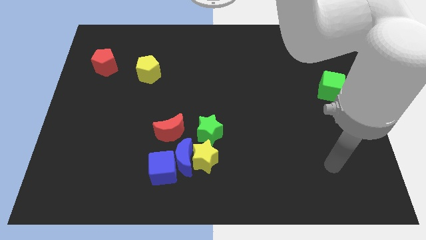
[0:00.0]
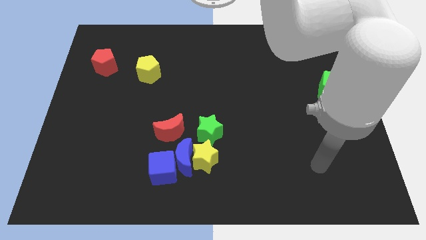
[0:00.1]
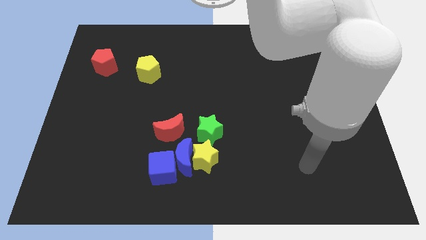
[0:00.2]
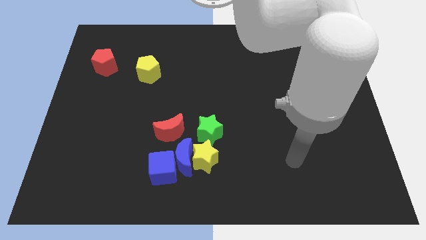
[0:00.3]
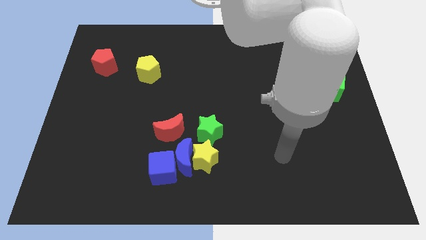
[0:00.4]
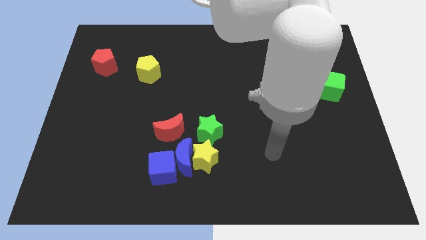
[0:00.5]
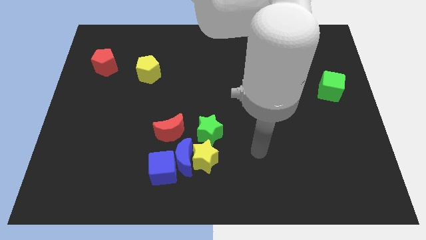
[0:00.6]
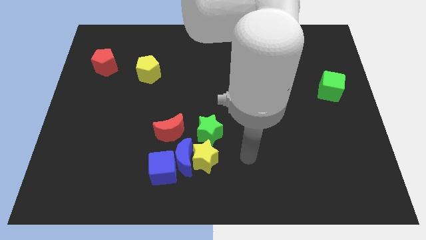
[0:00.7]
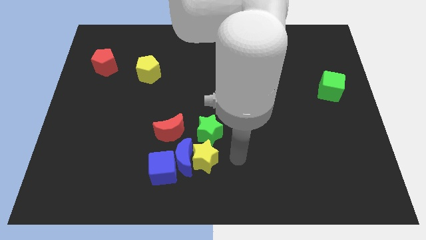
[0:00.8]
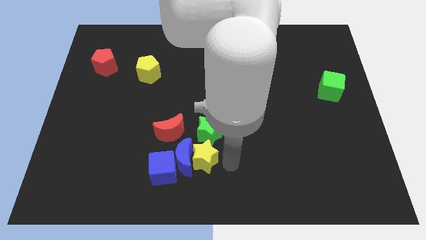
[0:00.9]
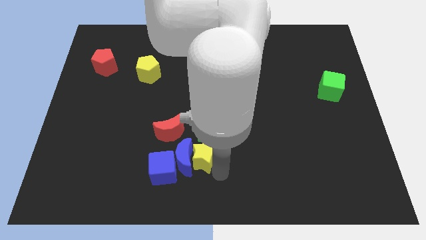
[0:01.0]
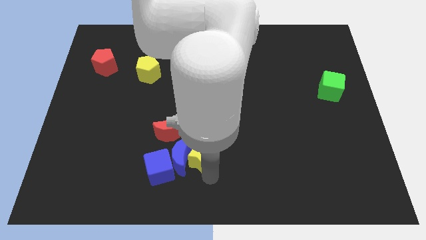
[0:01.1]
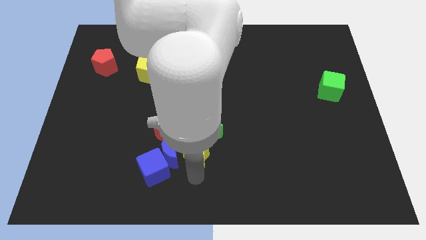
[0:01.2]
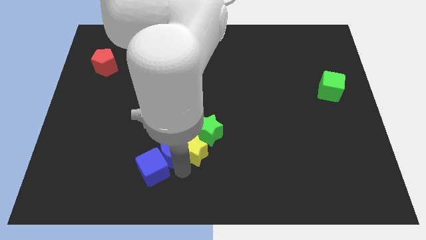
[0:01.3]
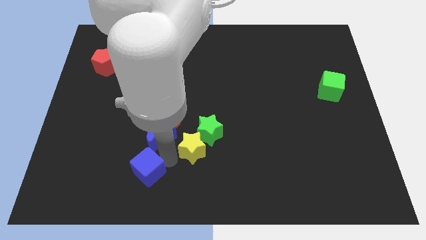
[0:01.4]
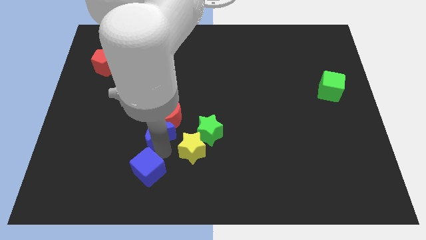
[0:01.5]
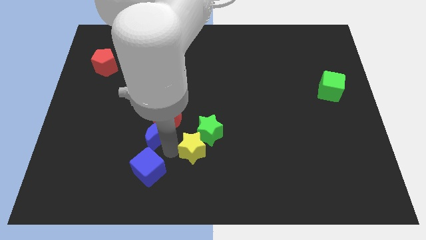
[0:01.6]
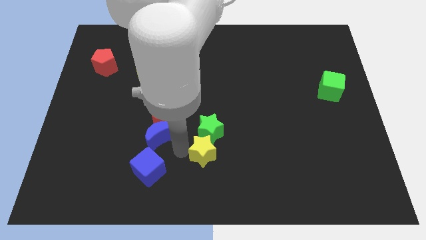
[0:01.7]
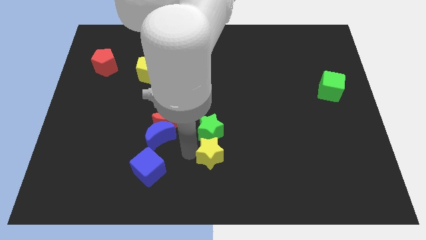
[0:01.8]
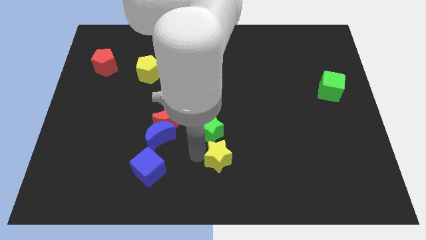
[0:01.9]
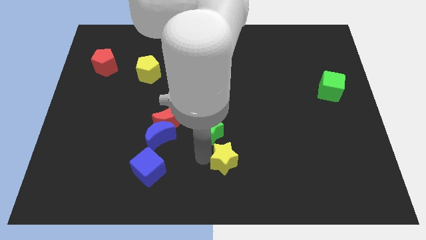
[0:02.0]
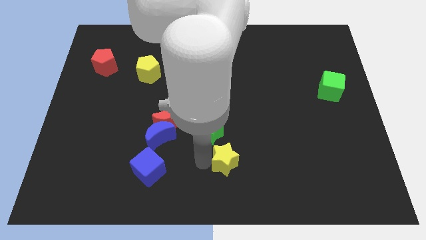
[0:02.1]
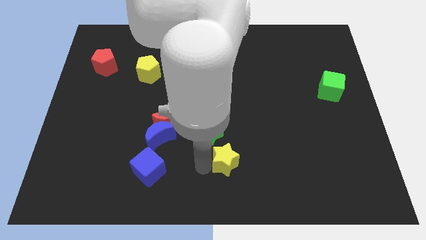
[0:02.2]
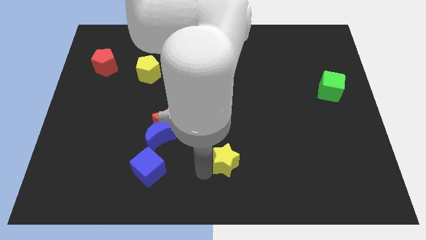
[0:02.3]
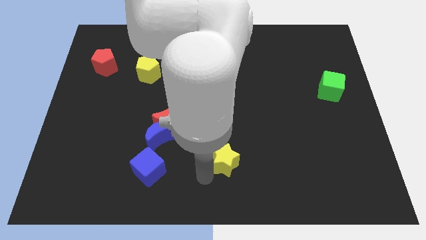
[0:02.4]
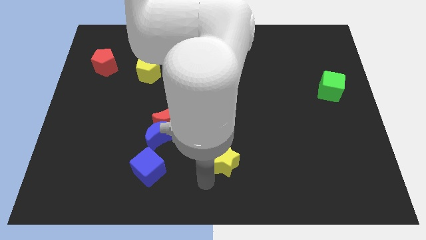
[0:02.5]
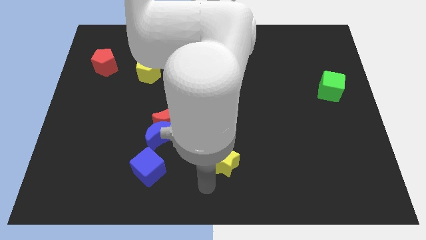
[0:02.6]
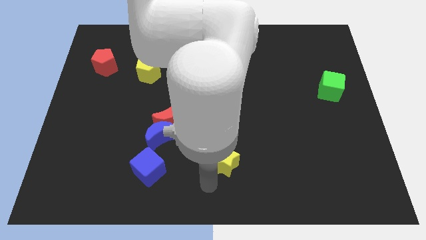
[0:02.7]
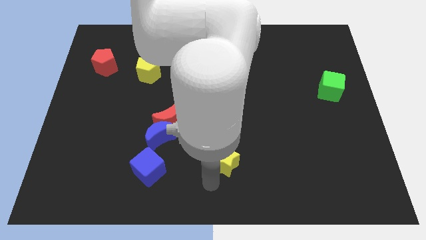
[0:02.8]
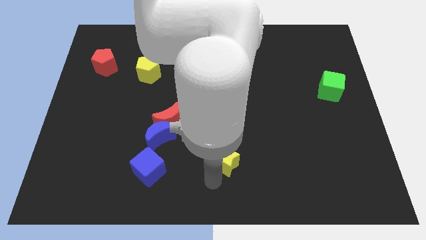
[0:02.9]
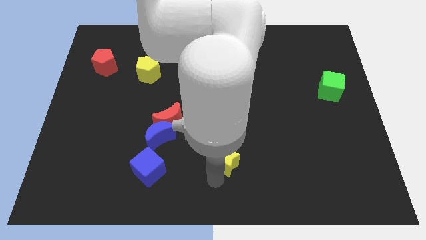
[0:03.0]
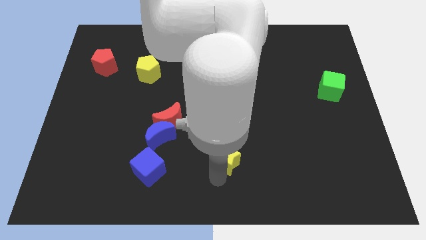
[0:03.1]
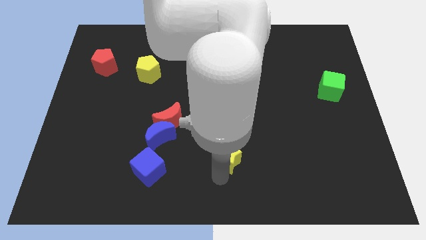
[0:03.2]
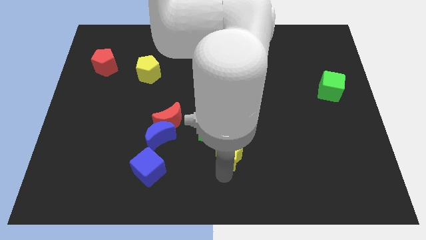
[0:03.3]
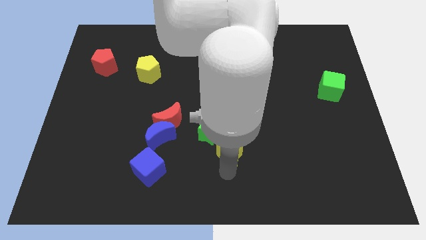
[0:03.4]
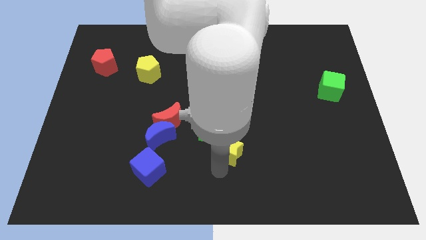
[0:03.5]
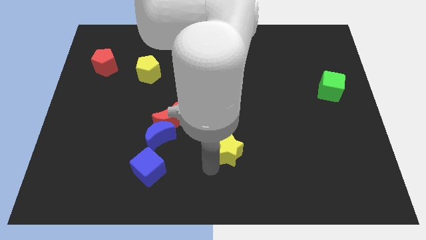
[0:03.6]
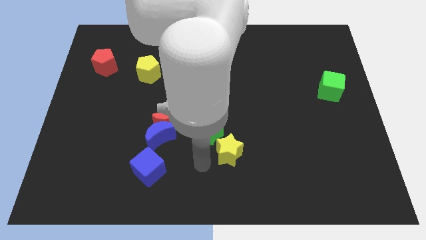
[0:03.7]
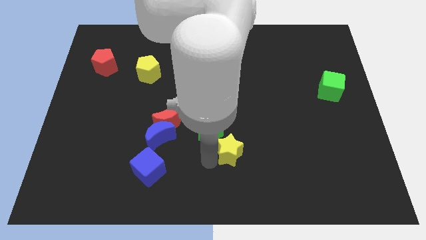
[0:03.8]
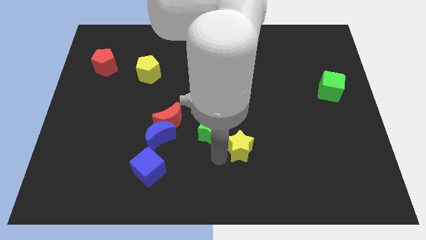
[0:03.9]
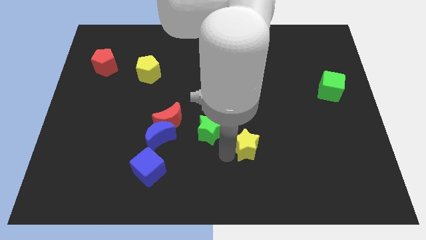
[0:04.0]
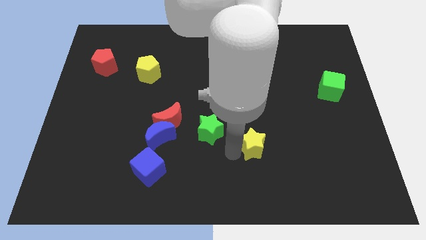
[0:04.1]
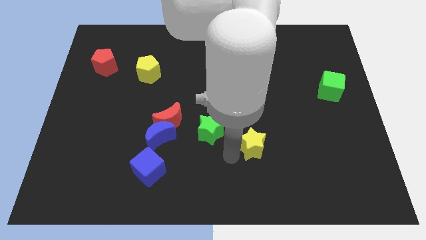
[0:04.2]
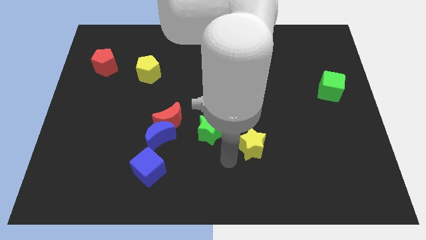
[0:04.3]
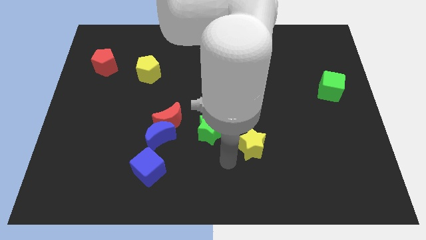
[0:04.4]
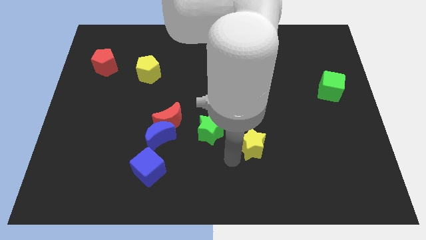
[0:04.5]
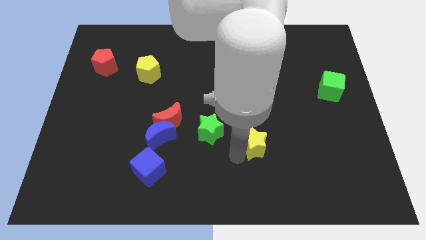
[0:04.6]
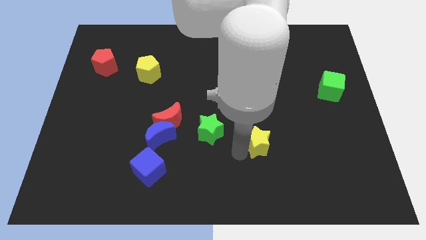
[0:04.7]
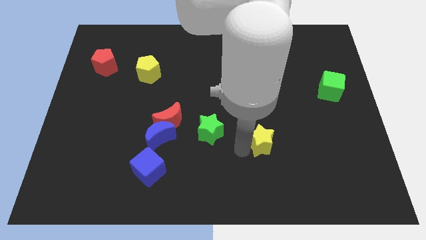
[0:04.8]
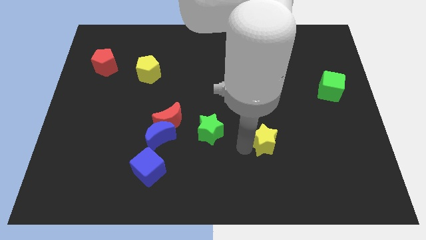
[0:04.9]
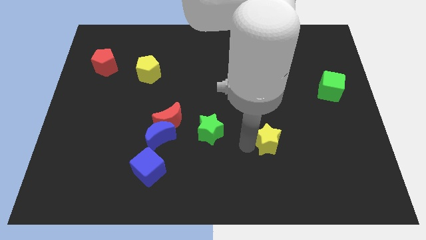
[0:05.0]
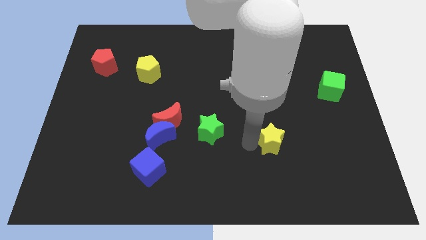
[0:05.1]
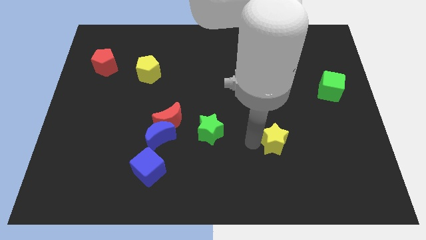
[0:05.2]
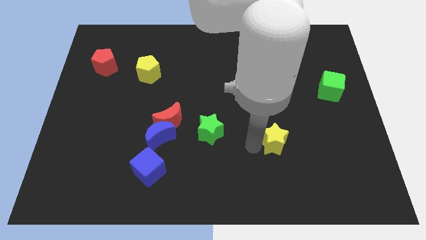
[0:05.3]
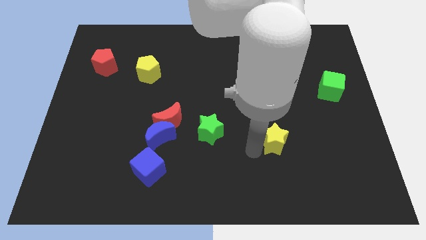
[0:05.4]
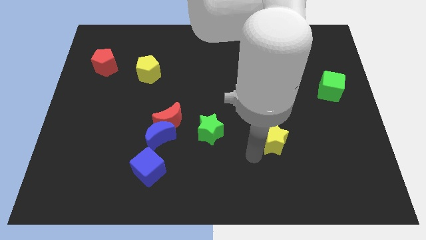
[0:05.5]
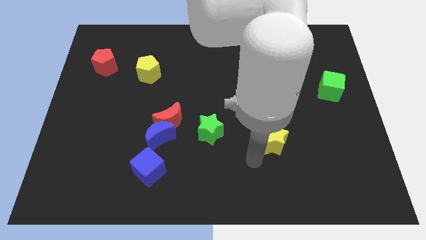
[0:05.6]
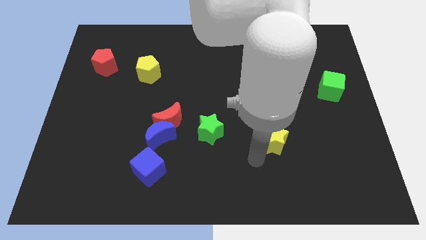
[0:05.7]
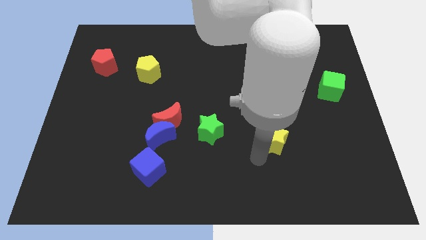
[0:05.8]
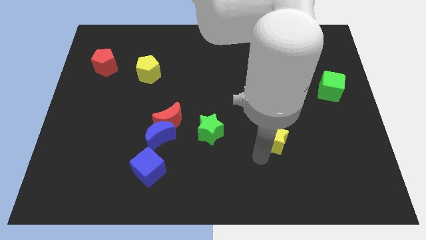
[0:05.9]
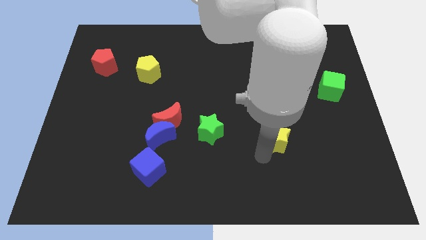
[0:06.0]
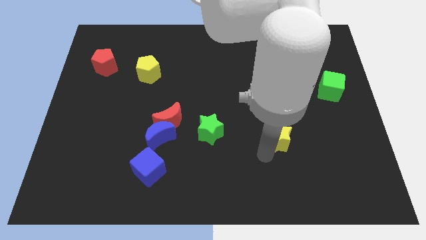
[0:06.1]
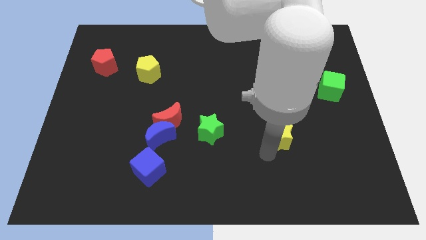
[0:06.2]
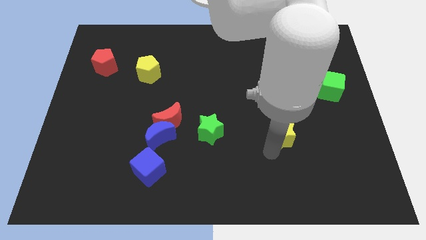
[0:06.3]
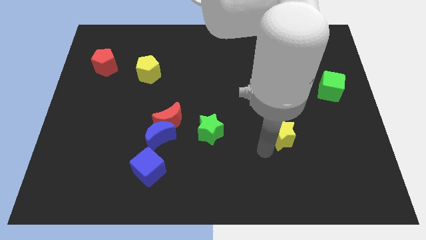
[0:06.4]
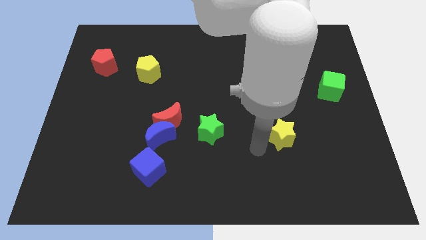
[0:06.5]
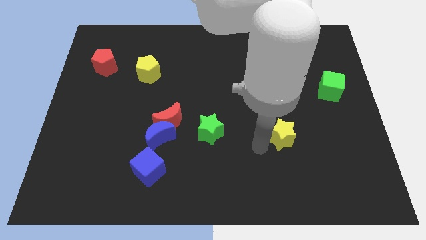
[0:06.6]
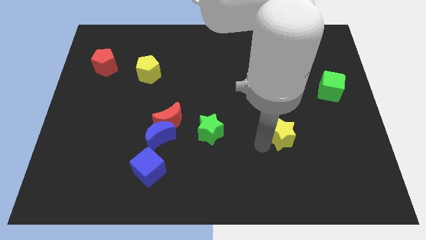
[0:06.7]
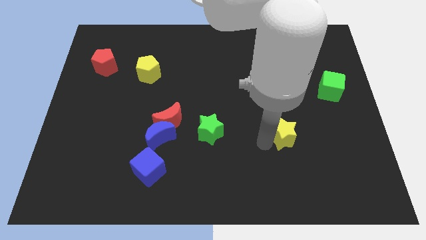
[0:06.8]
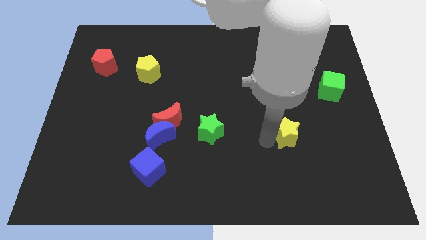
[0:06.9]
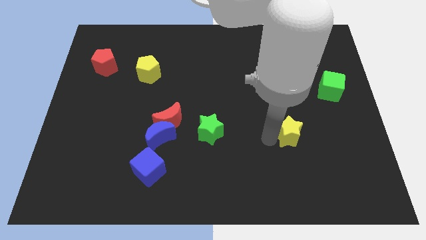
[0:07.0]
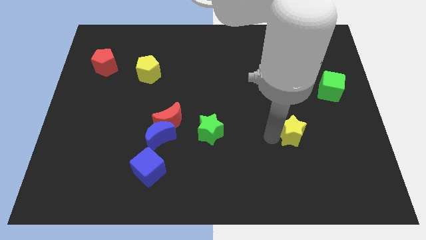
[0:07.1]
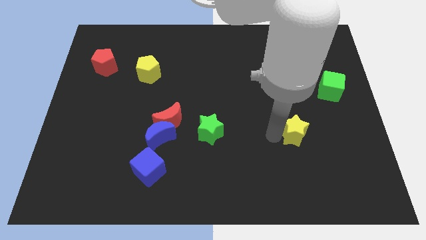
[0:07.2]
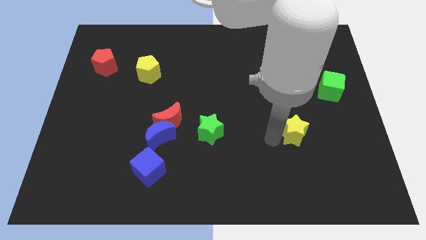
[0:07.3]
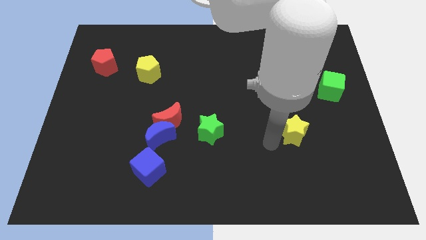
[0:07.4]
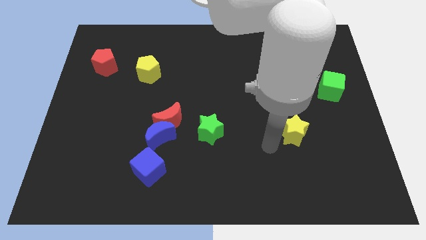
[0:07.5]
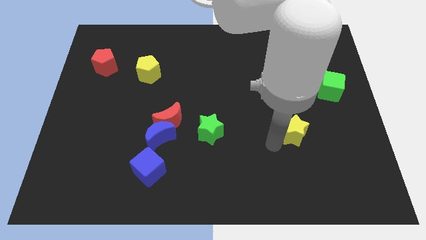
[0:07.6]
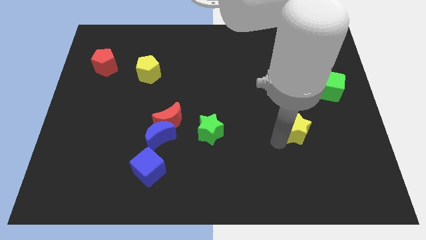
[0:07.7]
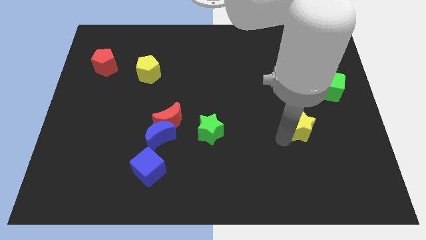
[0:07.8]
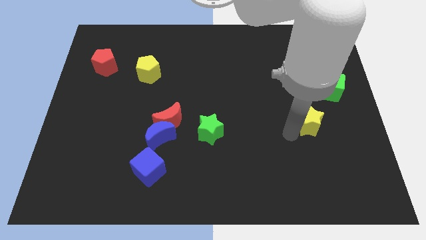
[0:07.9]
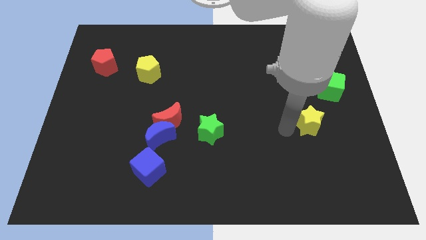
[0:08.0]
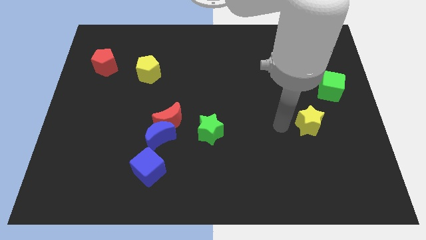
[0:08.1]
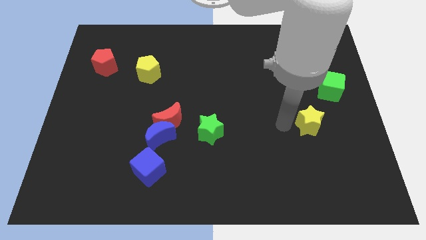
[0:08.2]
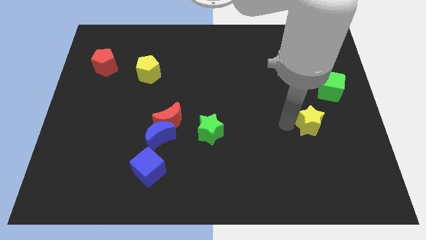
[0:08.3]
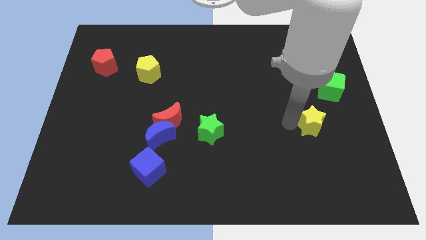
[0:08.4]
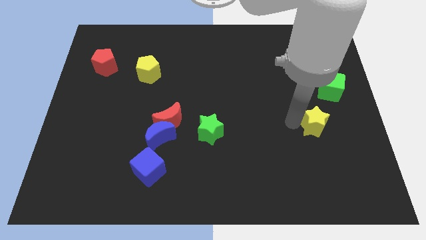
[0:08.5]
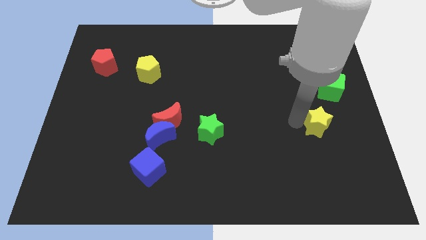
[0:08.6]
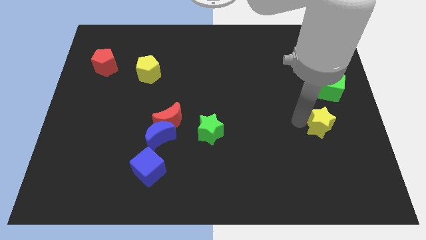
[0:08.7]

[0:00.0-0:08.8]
put the yellow star to the bottom of the green cube
